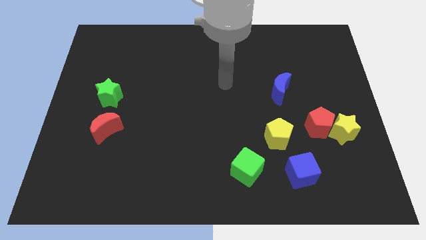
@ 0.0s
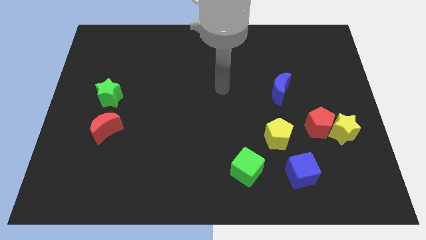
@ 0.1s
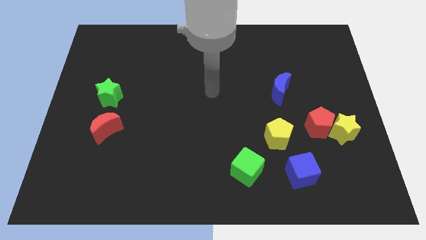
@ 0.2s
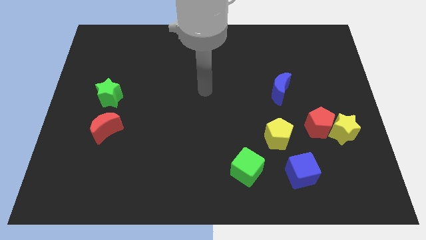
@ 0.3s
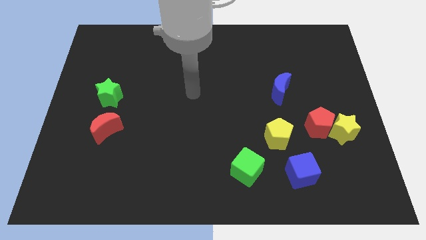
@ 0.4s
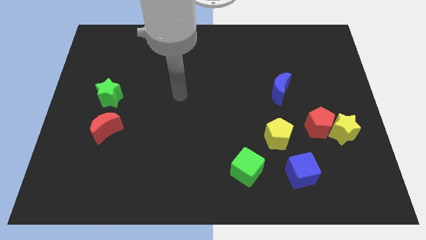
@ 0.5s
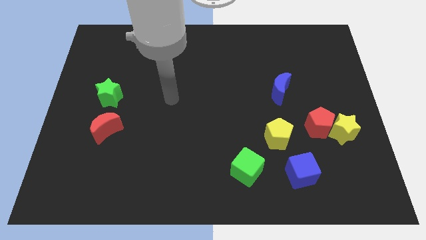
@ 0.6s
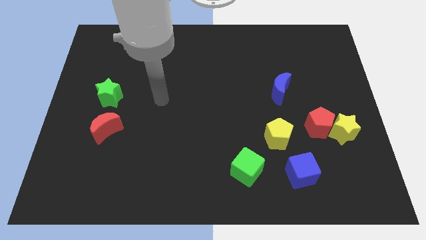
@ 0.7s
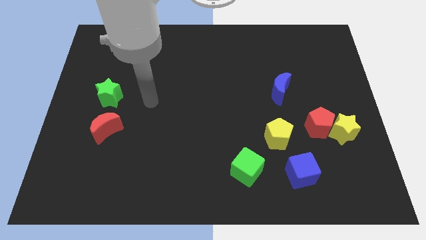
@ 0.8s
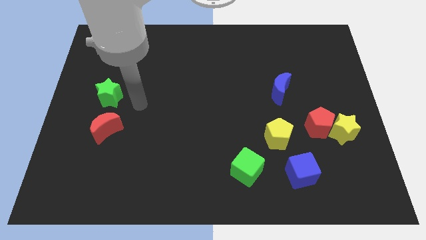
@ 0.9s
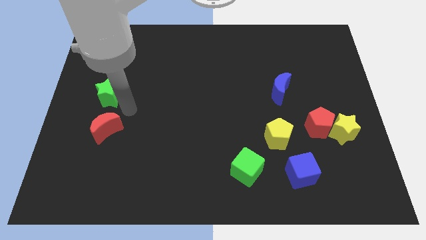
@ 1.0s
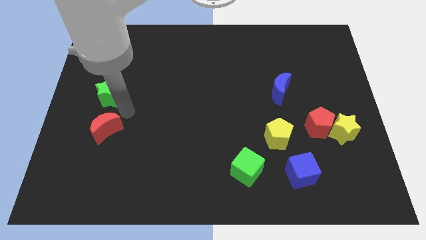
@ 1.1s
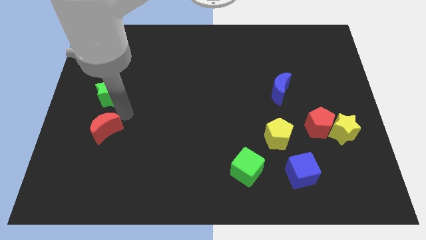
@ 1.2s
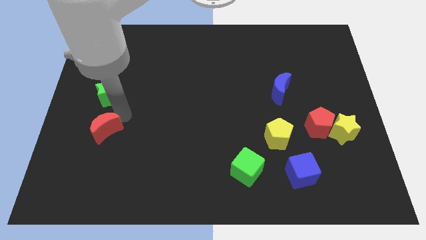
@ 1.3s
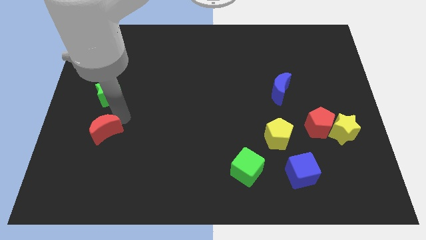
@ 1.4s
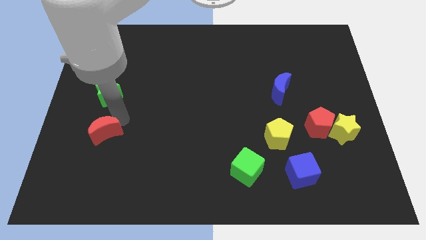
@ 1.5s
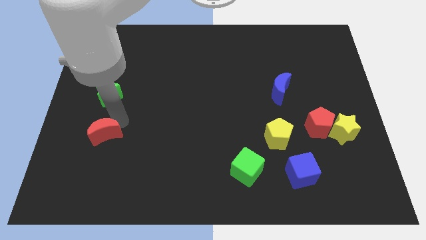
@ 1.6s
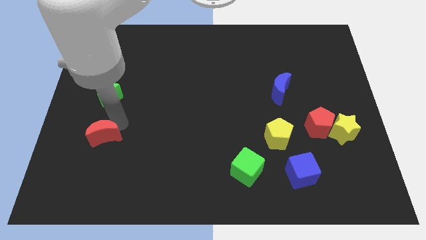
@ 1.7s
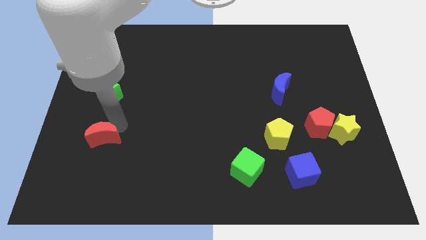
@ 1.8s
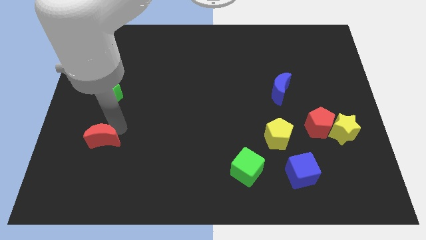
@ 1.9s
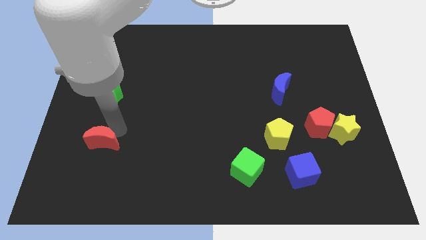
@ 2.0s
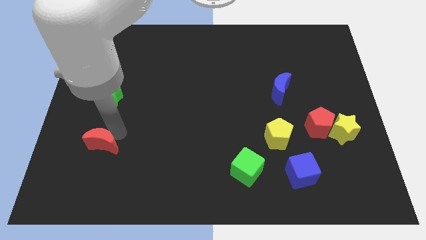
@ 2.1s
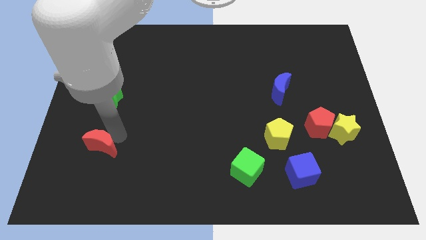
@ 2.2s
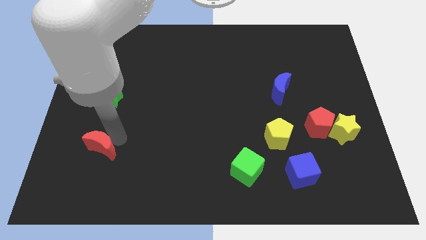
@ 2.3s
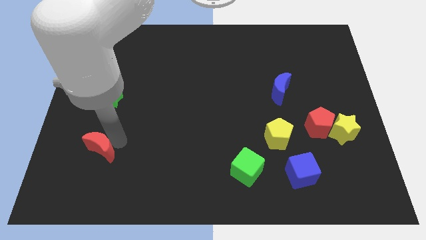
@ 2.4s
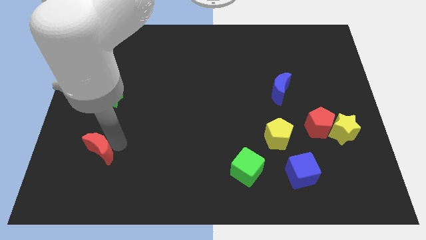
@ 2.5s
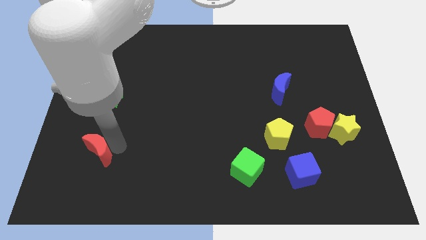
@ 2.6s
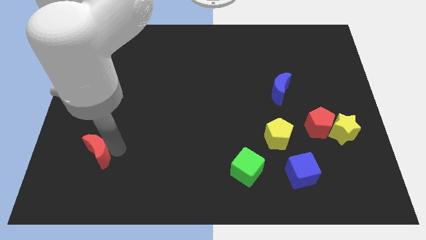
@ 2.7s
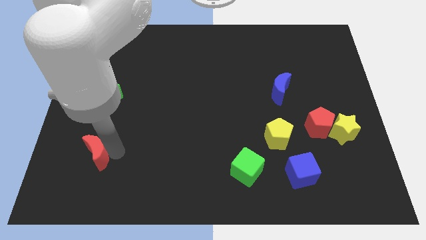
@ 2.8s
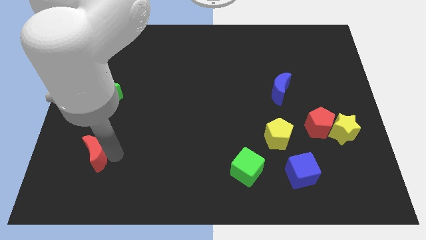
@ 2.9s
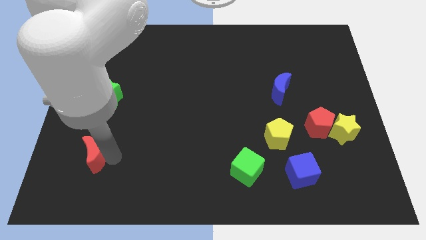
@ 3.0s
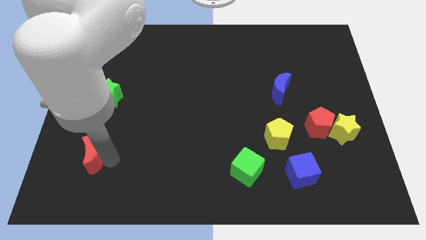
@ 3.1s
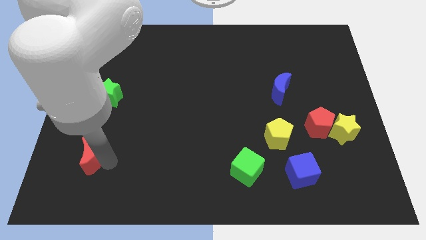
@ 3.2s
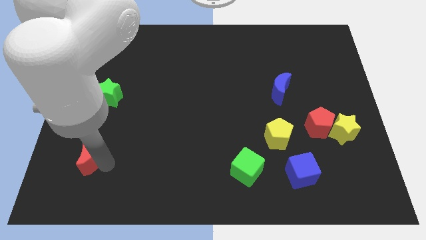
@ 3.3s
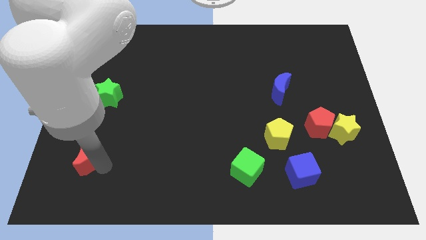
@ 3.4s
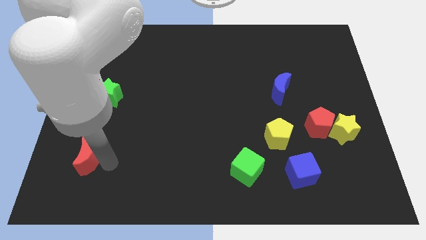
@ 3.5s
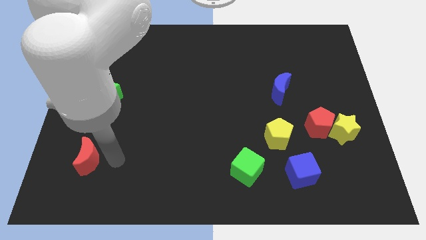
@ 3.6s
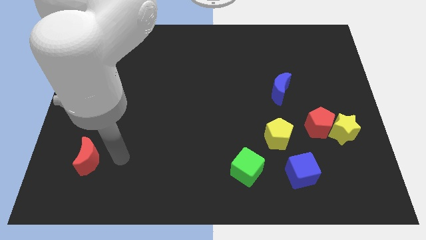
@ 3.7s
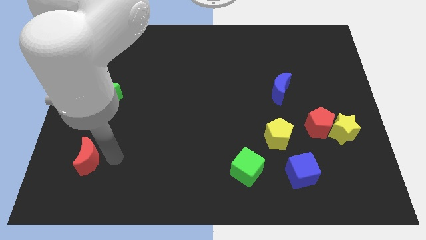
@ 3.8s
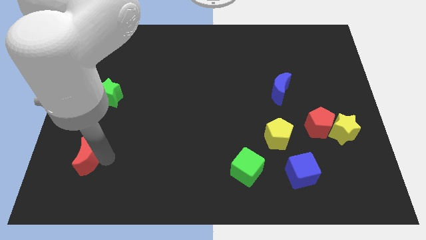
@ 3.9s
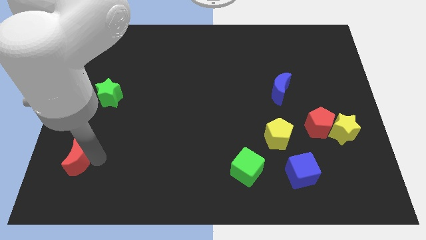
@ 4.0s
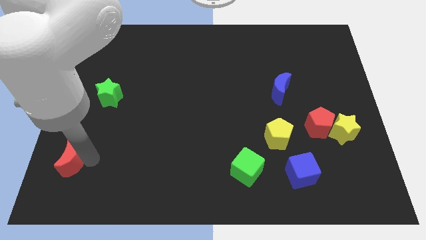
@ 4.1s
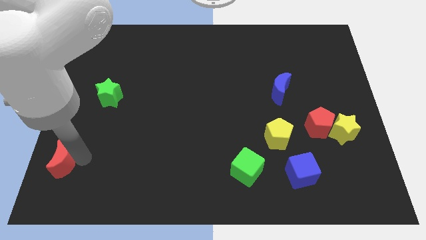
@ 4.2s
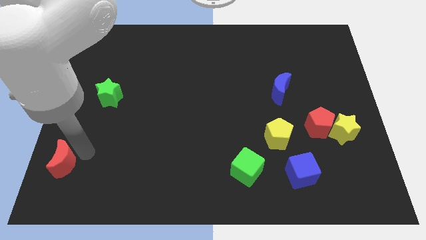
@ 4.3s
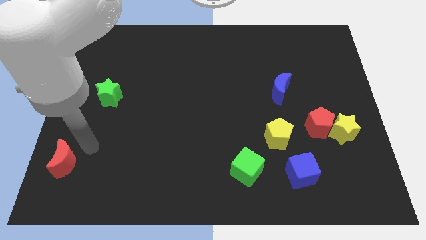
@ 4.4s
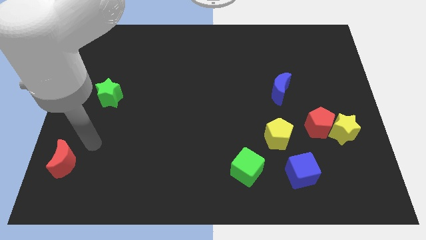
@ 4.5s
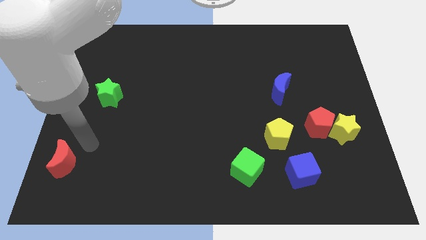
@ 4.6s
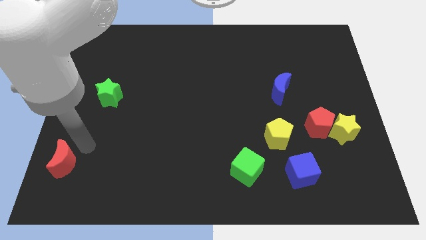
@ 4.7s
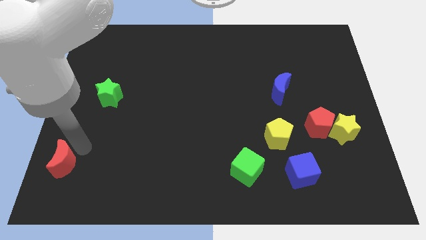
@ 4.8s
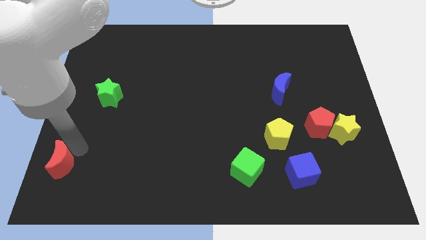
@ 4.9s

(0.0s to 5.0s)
put the red moon to the bottom left of the board

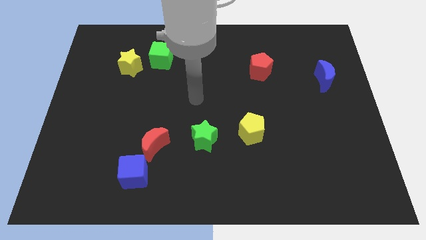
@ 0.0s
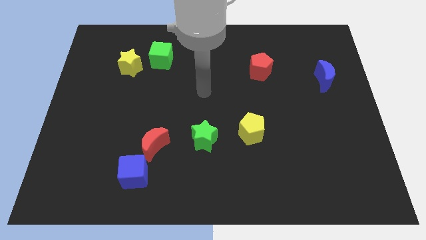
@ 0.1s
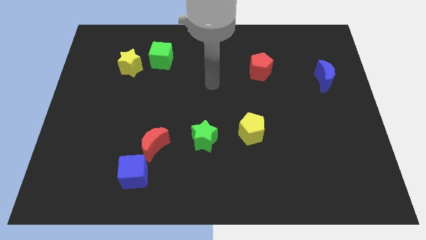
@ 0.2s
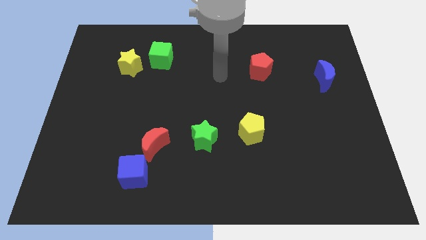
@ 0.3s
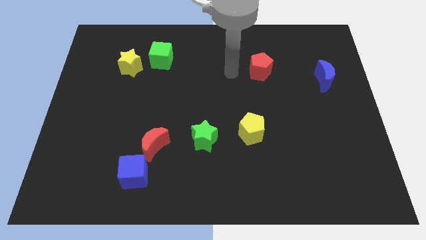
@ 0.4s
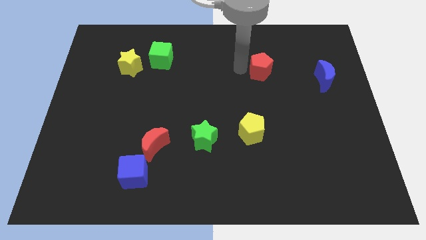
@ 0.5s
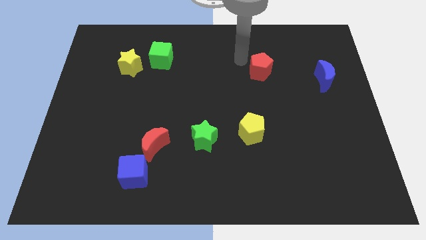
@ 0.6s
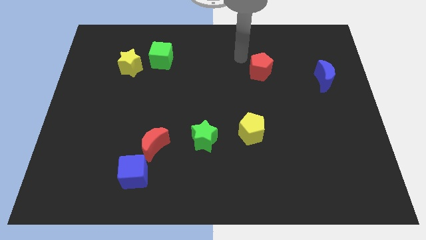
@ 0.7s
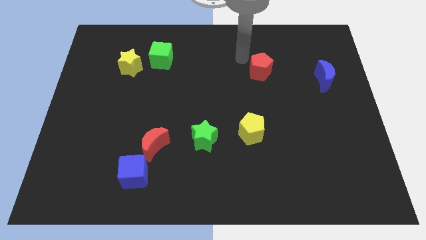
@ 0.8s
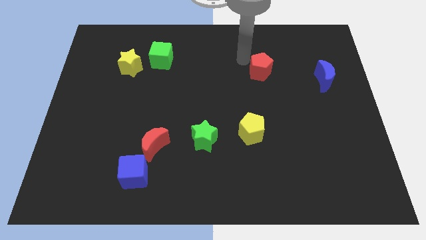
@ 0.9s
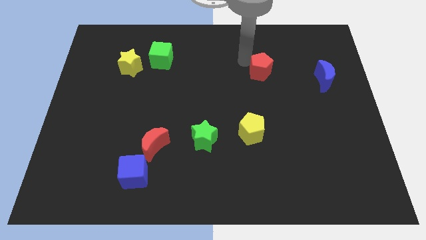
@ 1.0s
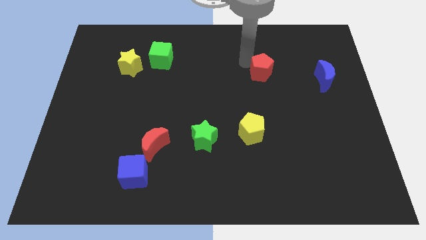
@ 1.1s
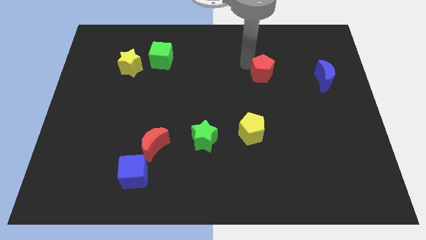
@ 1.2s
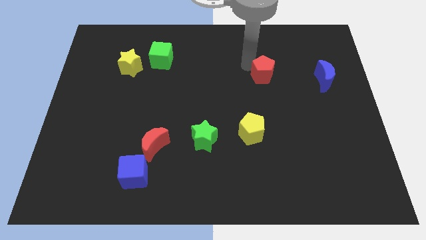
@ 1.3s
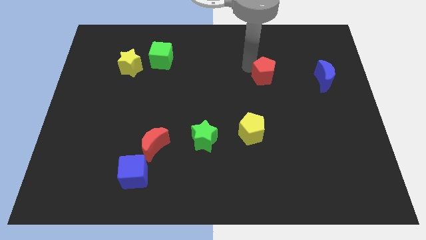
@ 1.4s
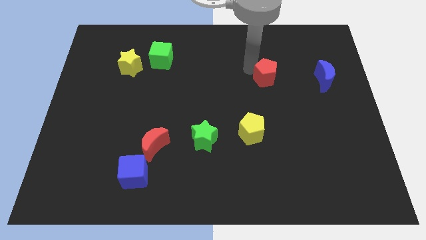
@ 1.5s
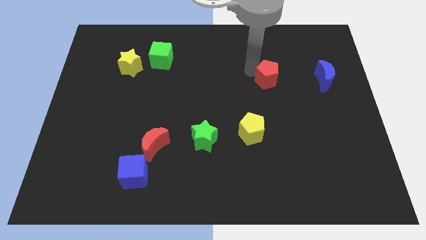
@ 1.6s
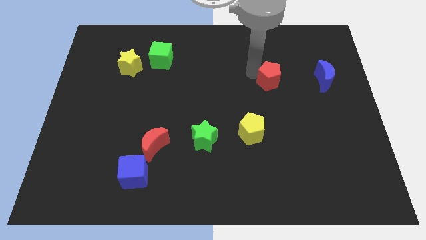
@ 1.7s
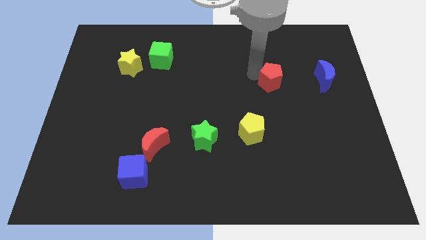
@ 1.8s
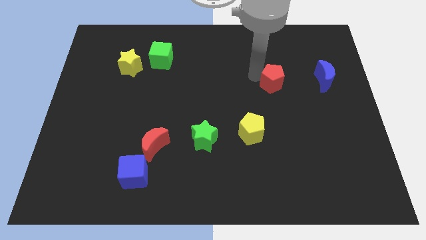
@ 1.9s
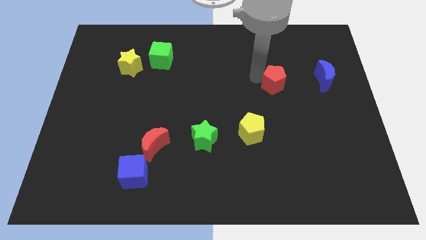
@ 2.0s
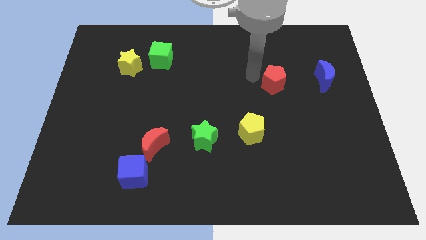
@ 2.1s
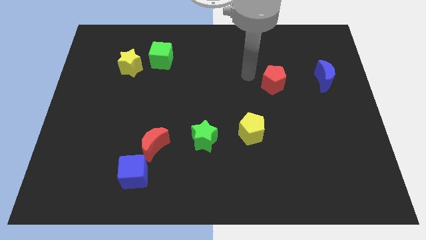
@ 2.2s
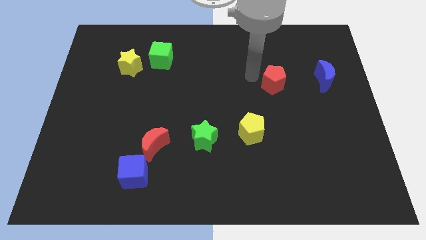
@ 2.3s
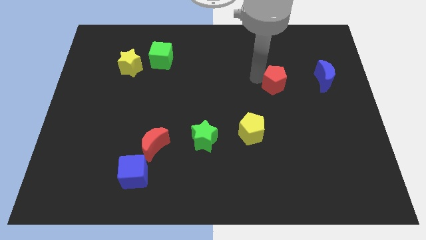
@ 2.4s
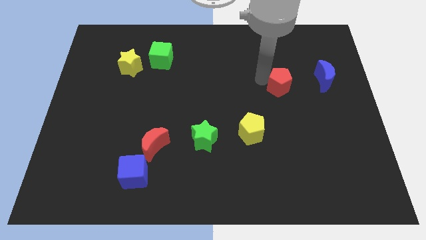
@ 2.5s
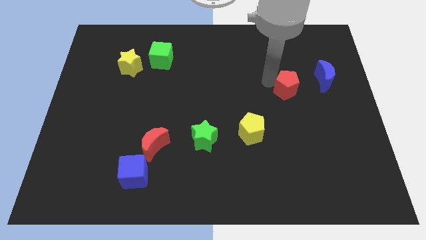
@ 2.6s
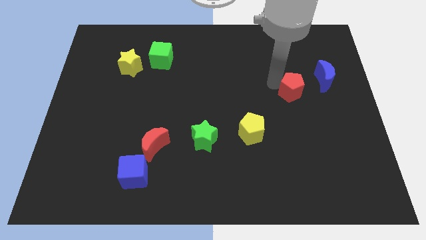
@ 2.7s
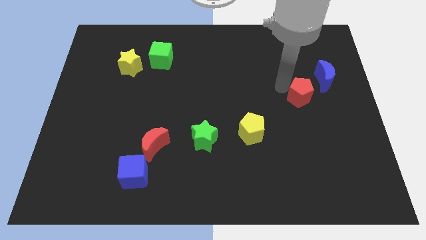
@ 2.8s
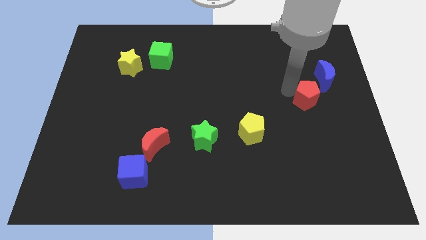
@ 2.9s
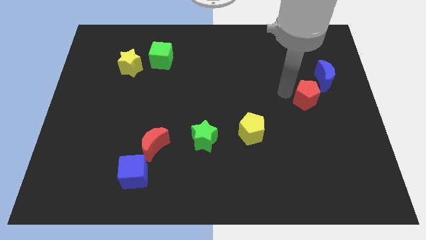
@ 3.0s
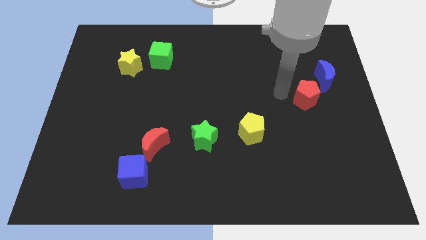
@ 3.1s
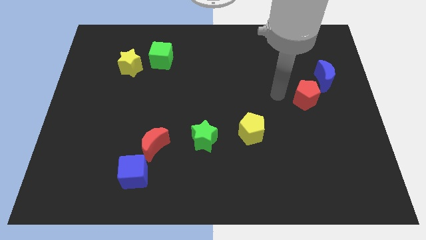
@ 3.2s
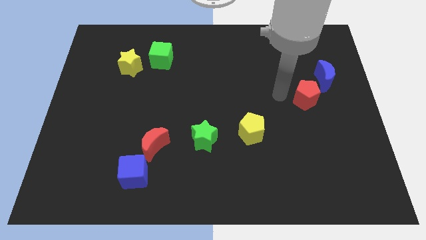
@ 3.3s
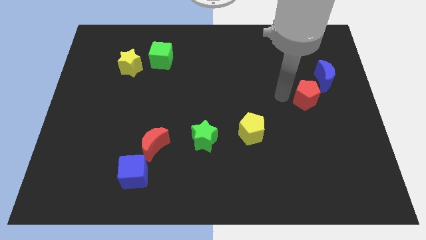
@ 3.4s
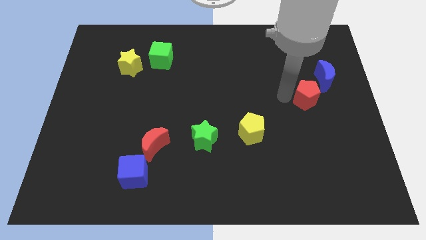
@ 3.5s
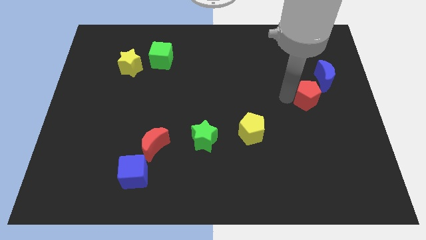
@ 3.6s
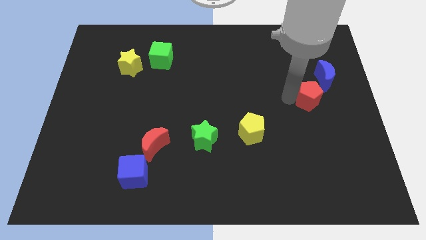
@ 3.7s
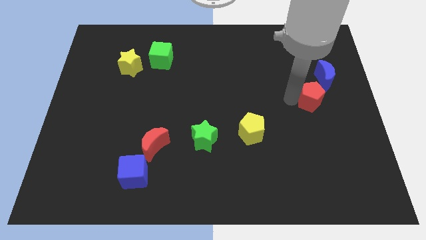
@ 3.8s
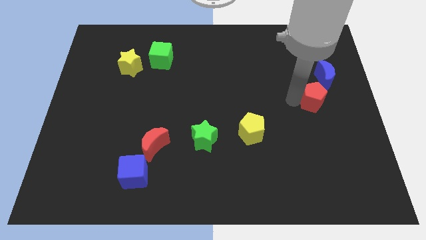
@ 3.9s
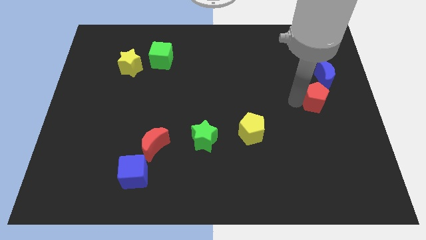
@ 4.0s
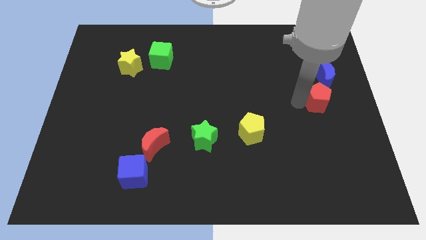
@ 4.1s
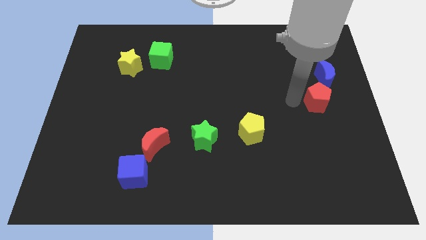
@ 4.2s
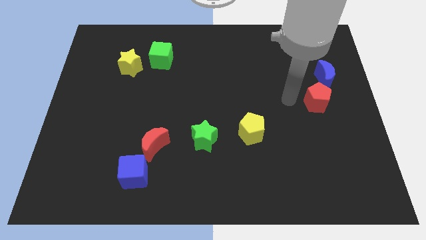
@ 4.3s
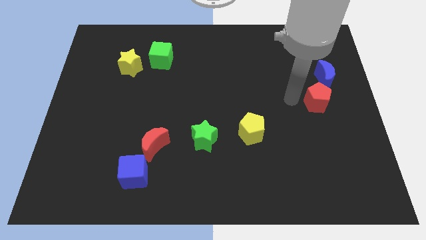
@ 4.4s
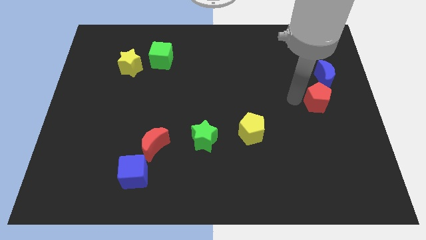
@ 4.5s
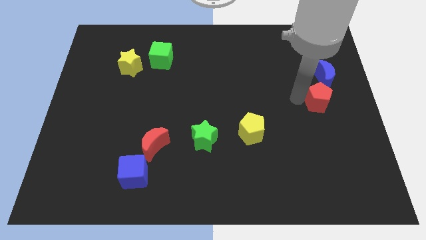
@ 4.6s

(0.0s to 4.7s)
slide the red pentagon to the center right
